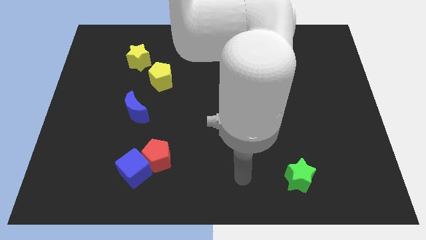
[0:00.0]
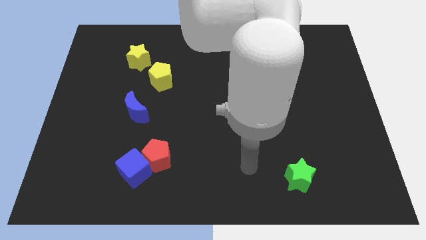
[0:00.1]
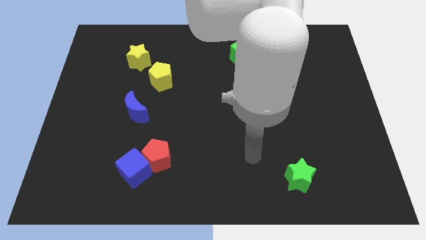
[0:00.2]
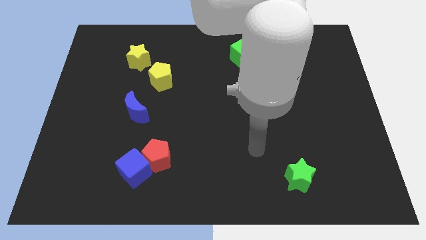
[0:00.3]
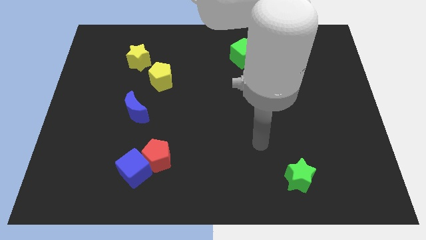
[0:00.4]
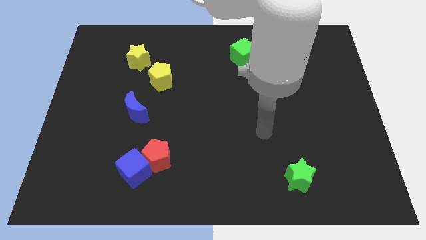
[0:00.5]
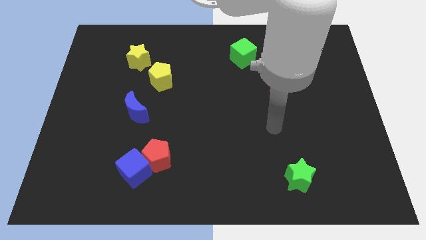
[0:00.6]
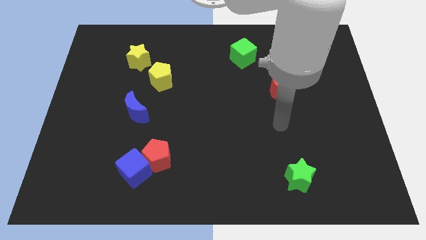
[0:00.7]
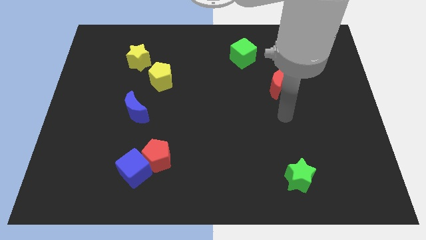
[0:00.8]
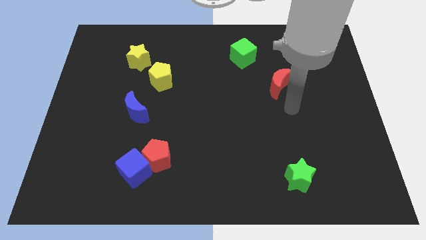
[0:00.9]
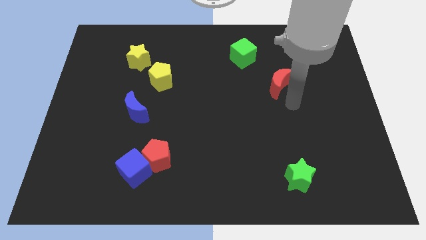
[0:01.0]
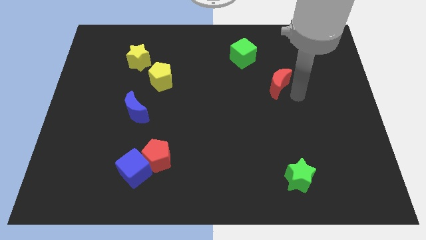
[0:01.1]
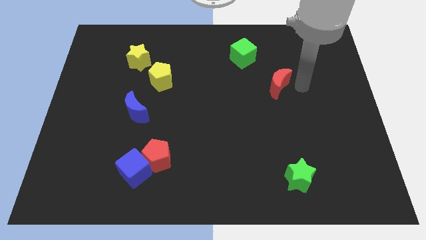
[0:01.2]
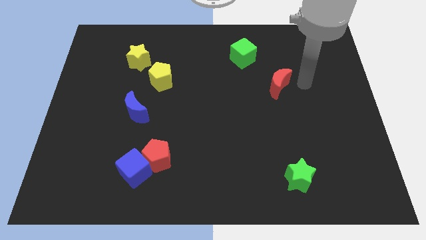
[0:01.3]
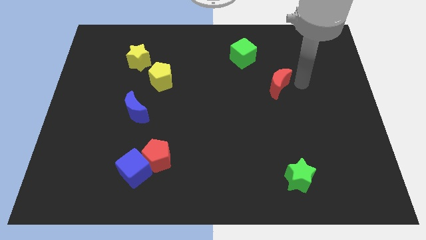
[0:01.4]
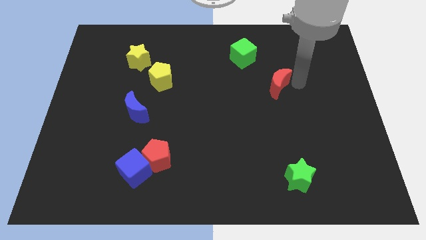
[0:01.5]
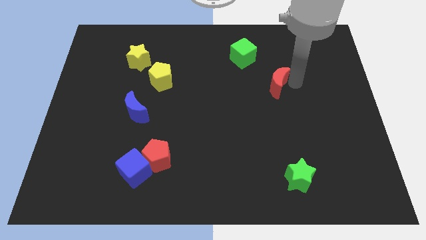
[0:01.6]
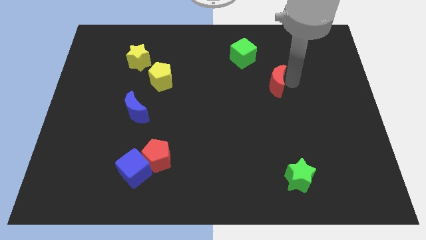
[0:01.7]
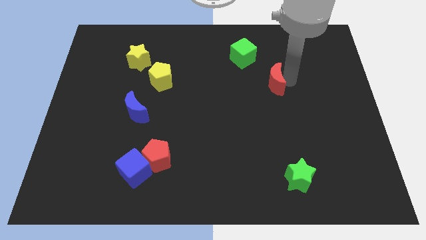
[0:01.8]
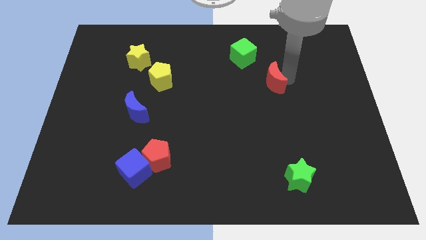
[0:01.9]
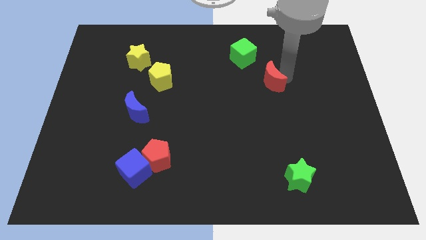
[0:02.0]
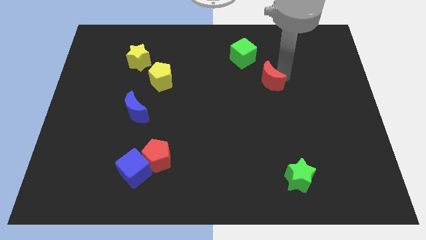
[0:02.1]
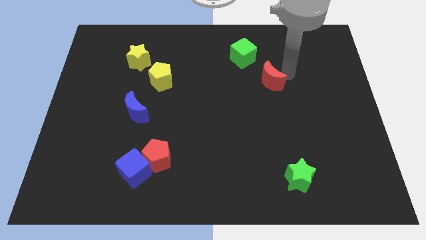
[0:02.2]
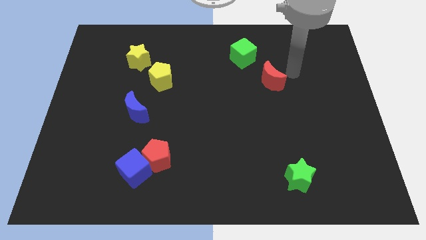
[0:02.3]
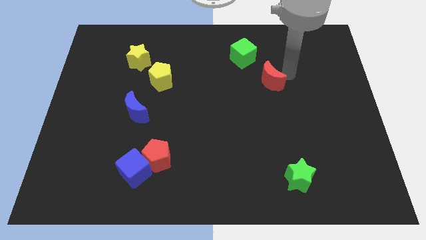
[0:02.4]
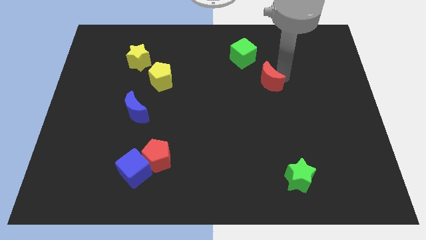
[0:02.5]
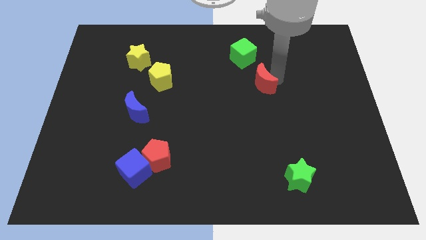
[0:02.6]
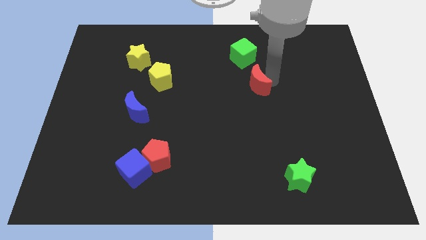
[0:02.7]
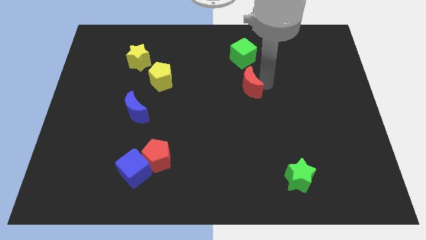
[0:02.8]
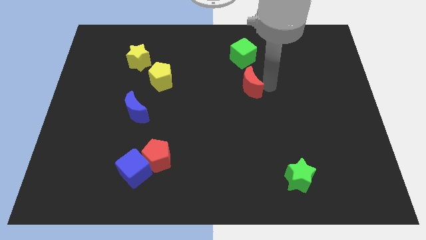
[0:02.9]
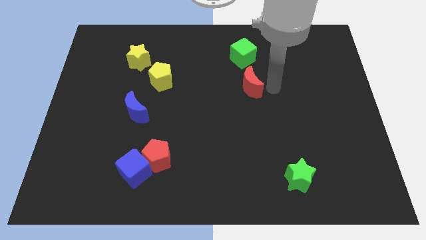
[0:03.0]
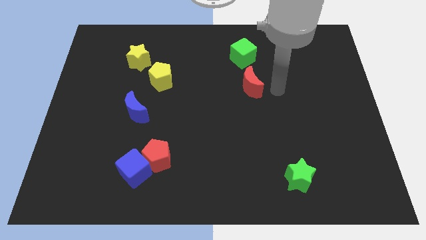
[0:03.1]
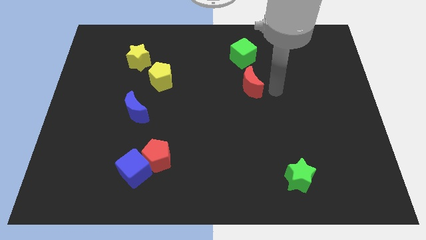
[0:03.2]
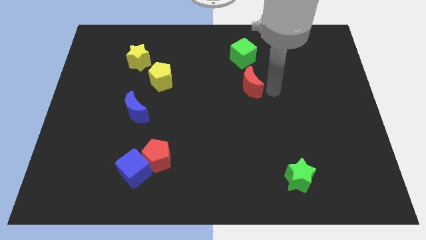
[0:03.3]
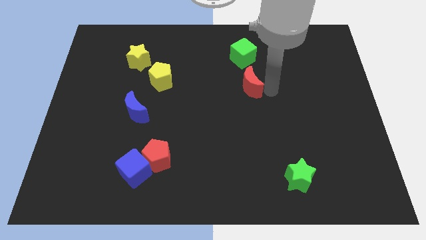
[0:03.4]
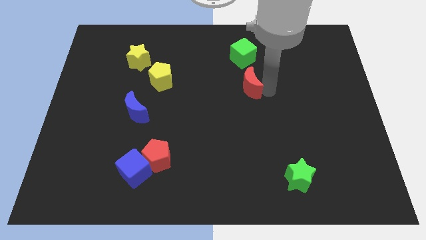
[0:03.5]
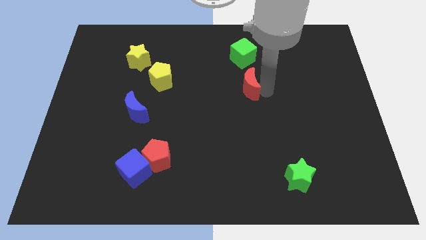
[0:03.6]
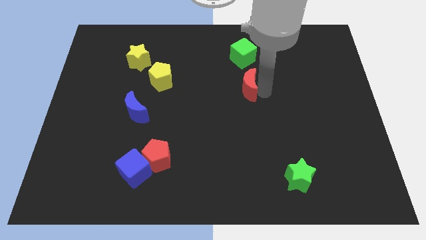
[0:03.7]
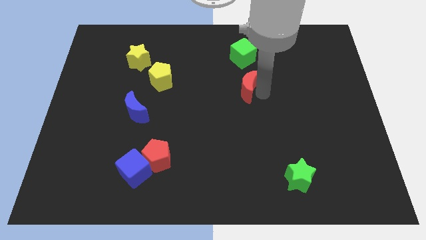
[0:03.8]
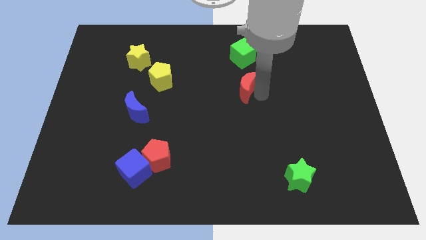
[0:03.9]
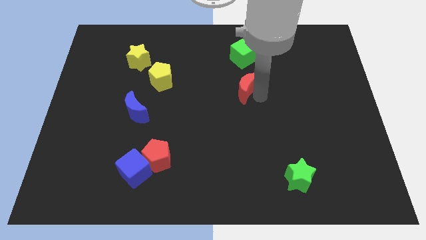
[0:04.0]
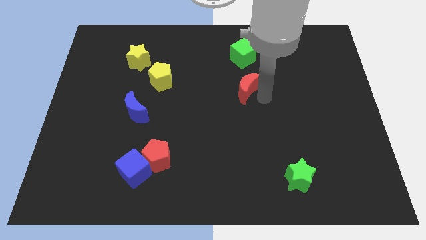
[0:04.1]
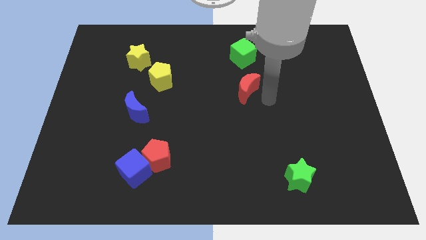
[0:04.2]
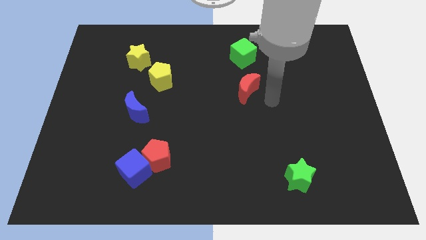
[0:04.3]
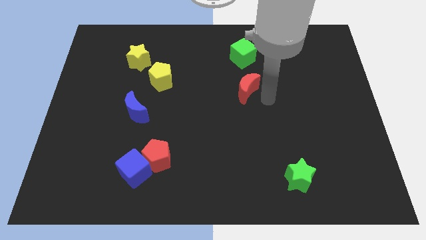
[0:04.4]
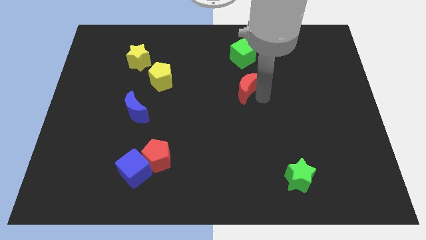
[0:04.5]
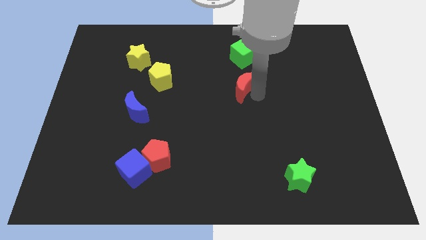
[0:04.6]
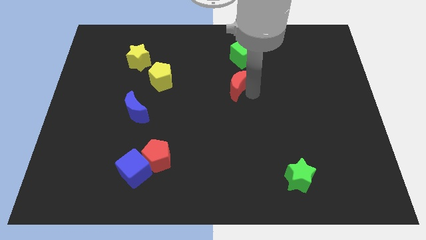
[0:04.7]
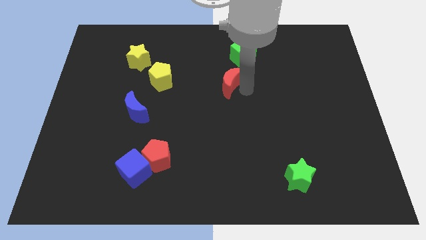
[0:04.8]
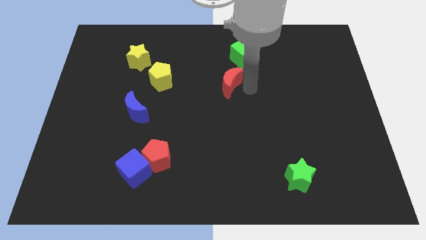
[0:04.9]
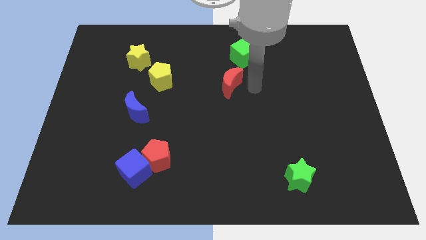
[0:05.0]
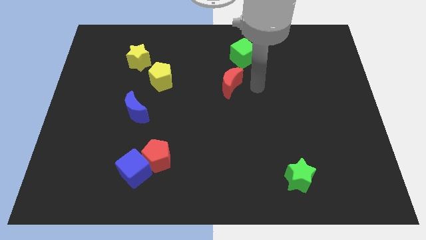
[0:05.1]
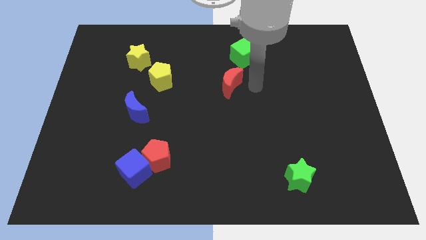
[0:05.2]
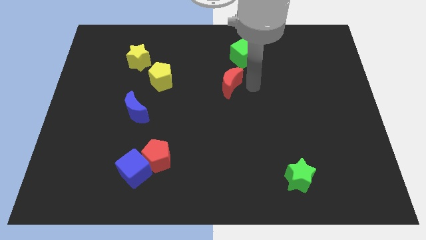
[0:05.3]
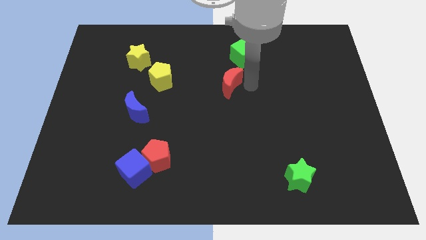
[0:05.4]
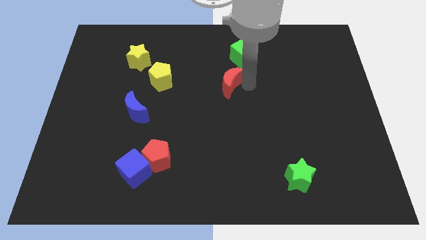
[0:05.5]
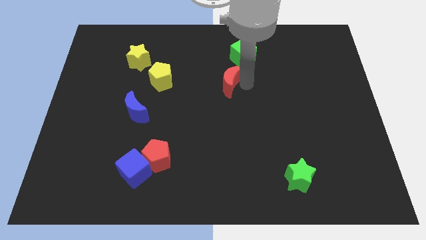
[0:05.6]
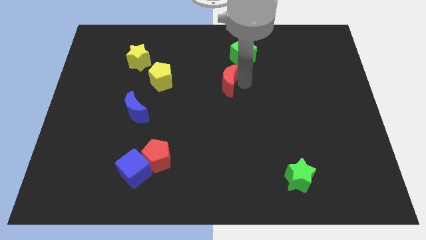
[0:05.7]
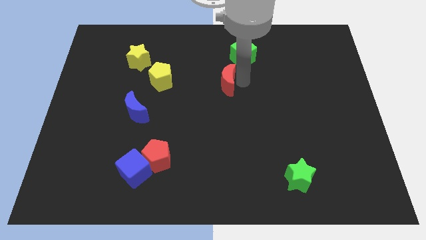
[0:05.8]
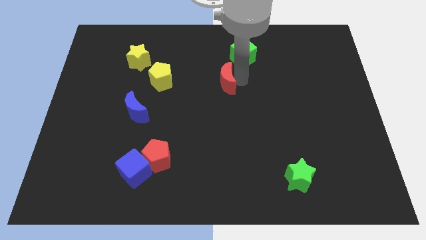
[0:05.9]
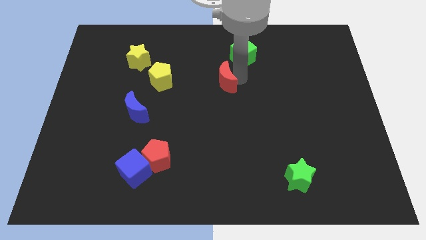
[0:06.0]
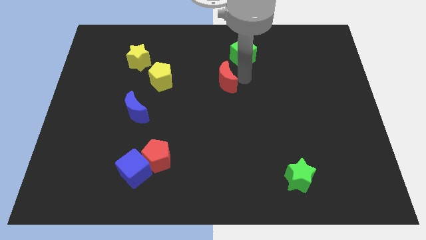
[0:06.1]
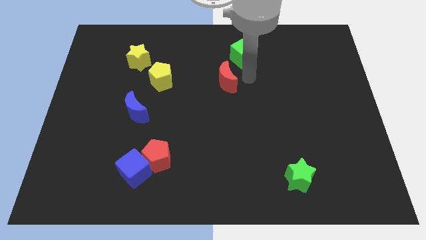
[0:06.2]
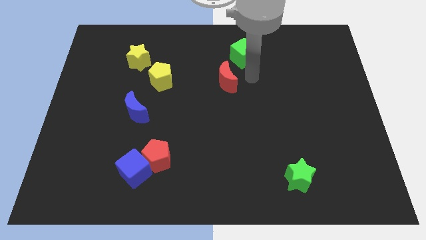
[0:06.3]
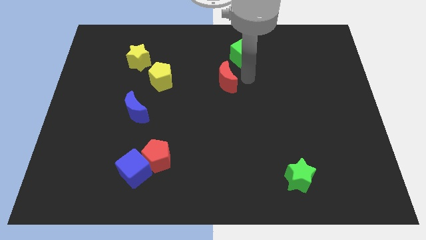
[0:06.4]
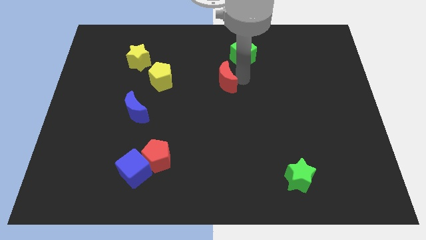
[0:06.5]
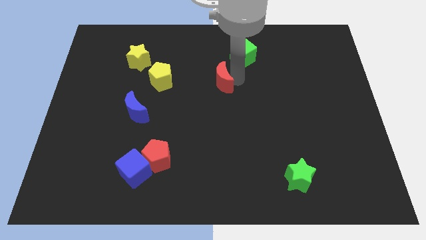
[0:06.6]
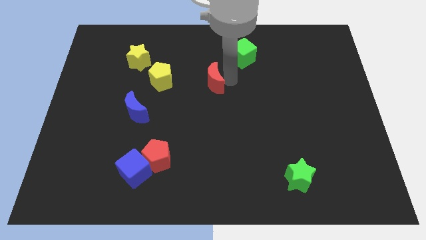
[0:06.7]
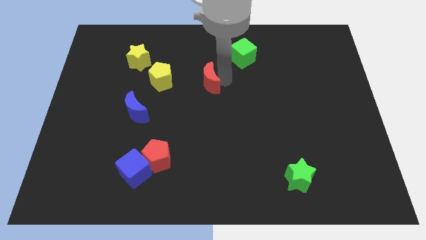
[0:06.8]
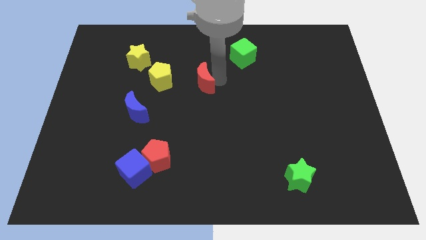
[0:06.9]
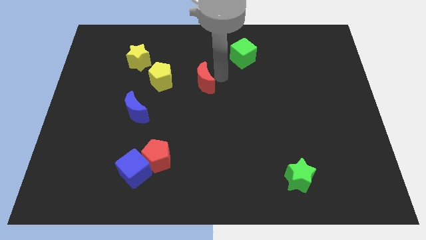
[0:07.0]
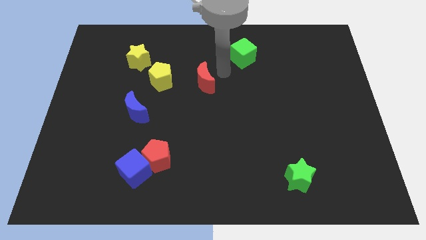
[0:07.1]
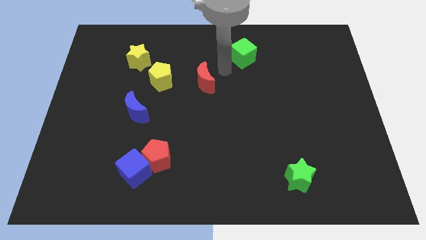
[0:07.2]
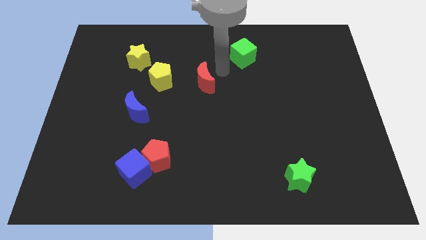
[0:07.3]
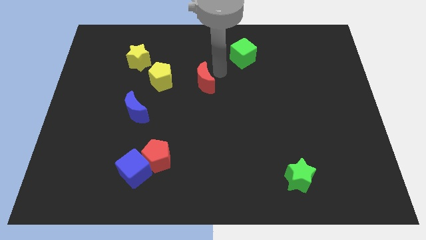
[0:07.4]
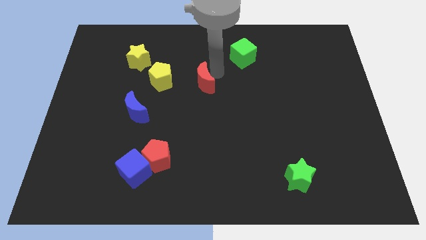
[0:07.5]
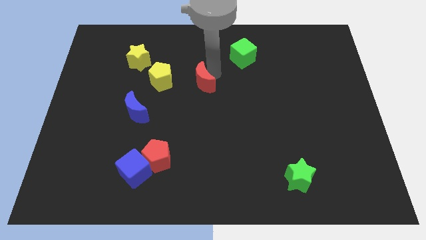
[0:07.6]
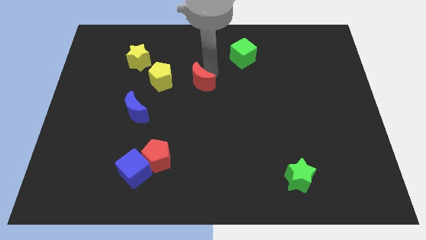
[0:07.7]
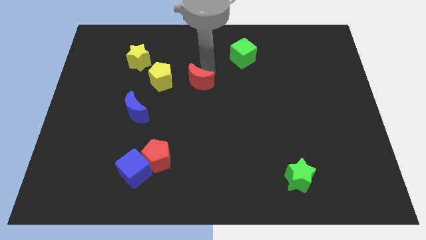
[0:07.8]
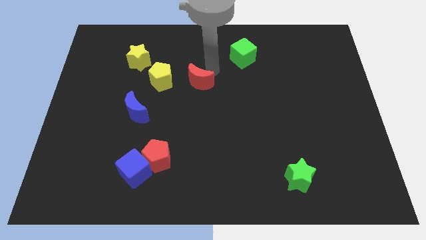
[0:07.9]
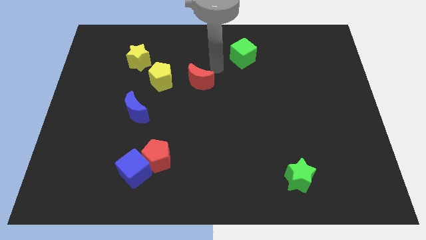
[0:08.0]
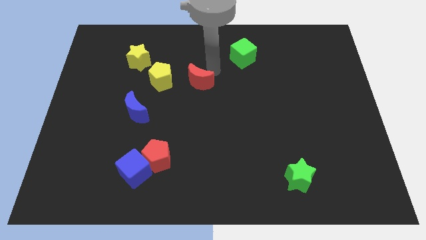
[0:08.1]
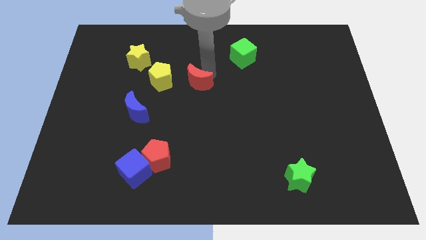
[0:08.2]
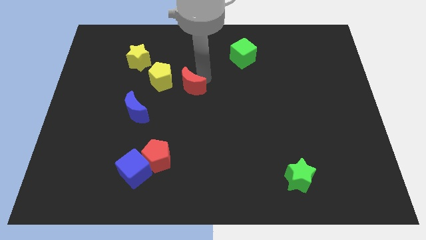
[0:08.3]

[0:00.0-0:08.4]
push the red moon to the bottom right side of the yellow pentagon
